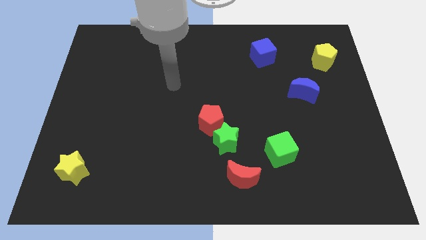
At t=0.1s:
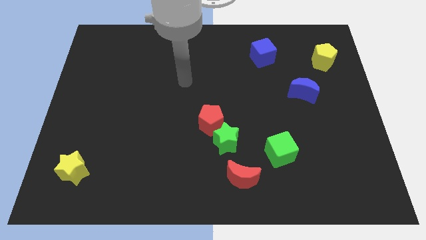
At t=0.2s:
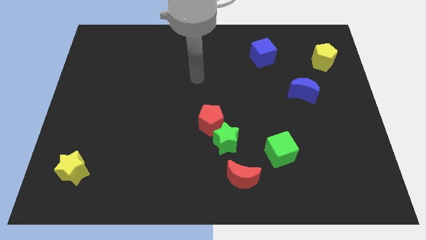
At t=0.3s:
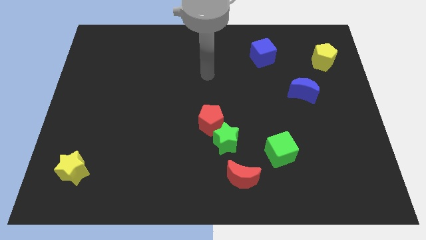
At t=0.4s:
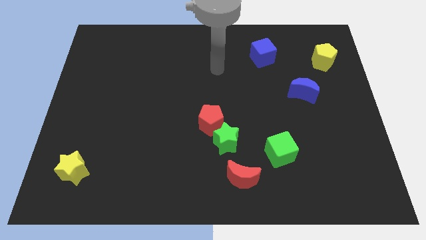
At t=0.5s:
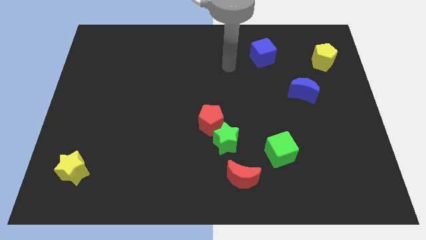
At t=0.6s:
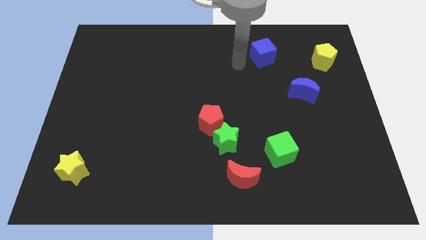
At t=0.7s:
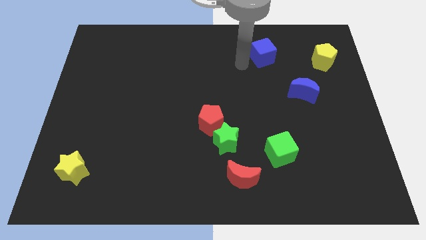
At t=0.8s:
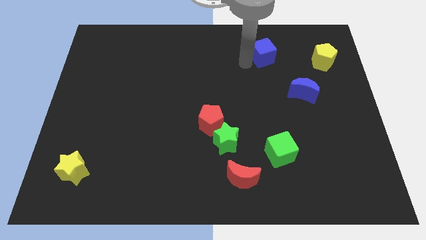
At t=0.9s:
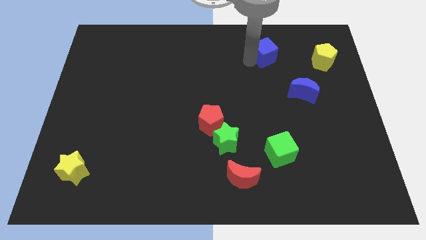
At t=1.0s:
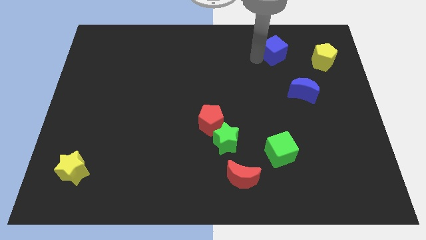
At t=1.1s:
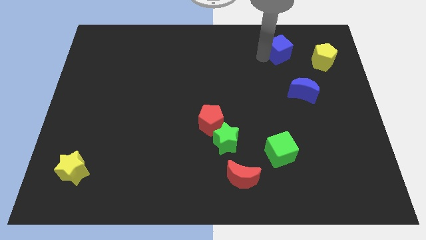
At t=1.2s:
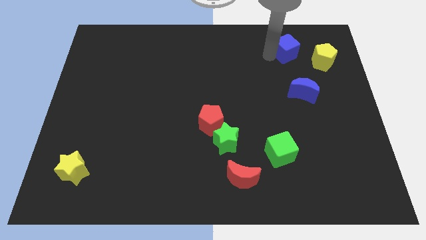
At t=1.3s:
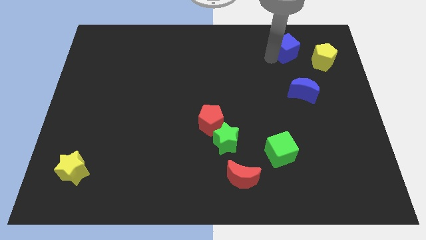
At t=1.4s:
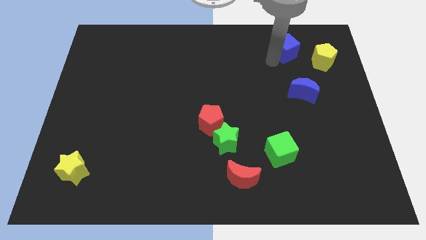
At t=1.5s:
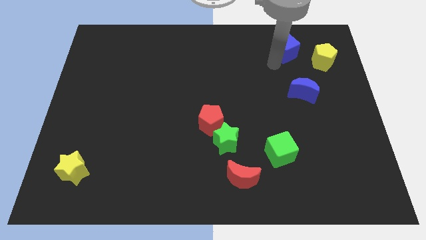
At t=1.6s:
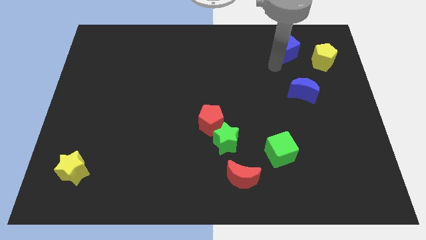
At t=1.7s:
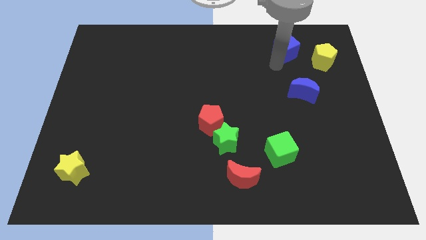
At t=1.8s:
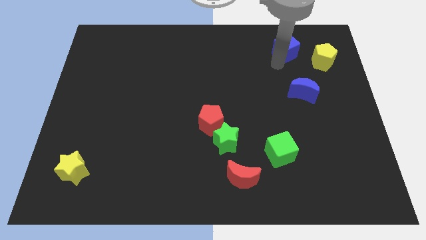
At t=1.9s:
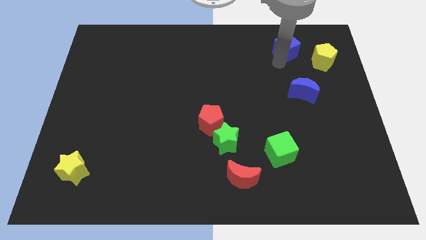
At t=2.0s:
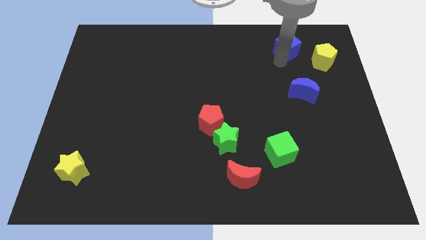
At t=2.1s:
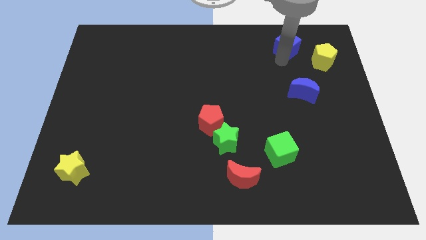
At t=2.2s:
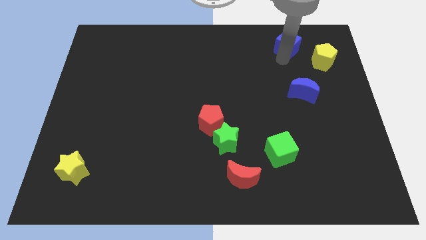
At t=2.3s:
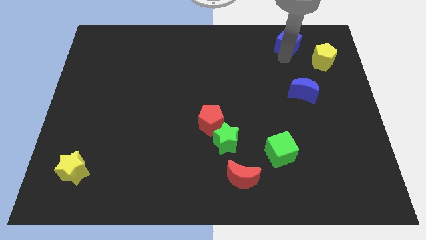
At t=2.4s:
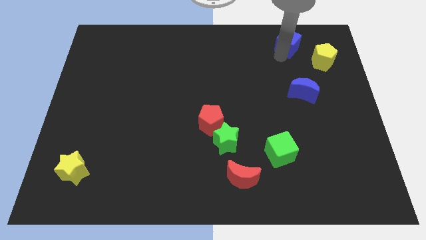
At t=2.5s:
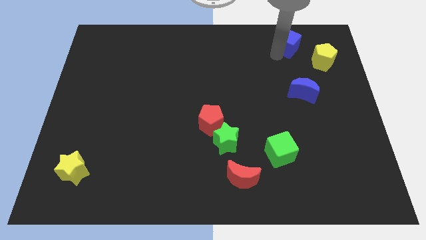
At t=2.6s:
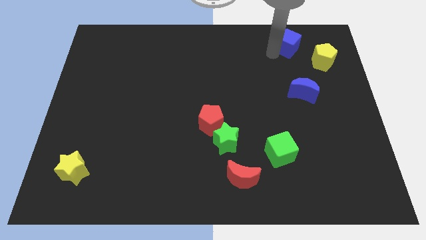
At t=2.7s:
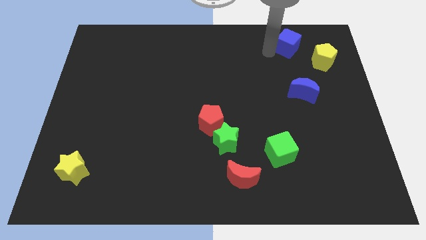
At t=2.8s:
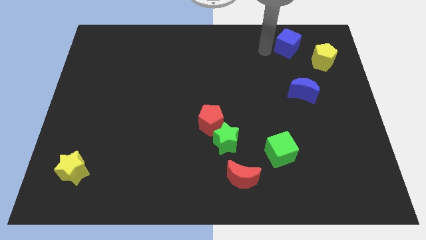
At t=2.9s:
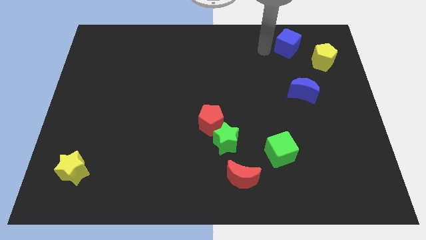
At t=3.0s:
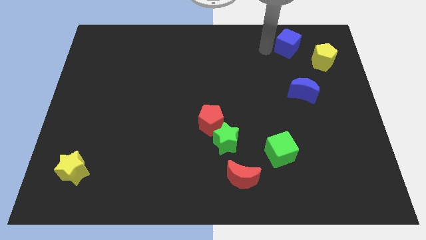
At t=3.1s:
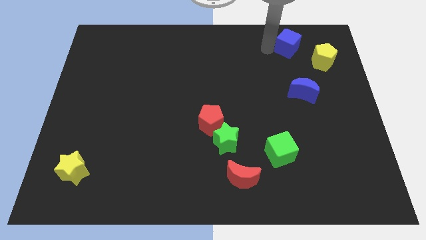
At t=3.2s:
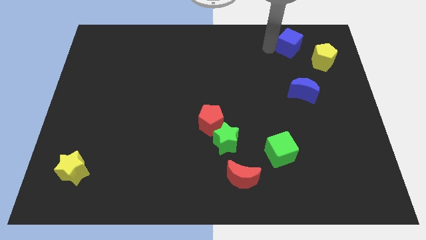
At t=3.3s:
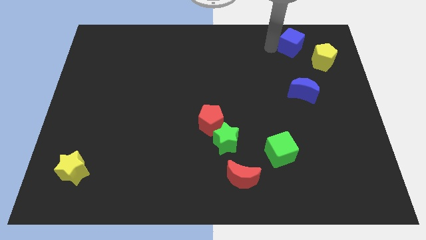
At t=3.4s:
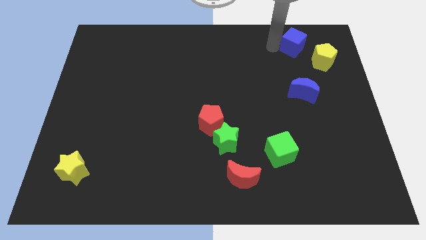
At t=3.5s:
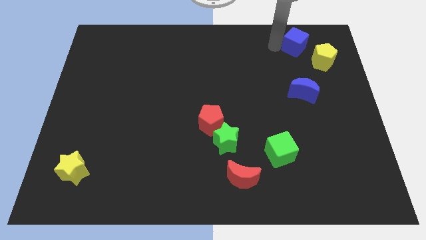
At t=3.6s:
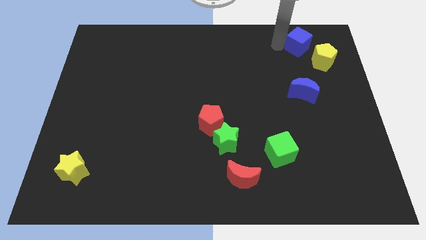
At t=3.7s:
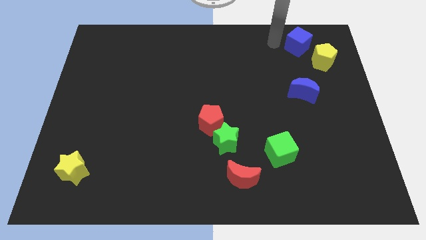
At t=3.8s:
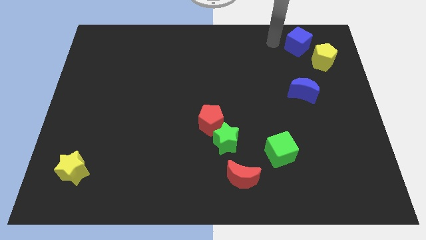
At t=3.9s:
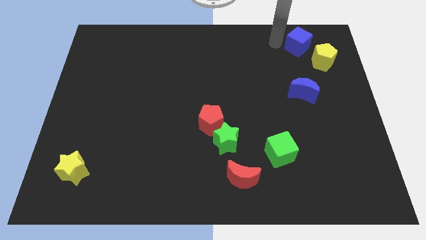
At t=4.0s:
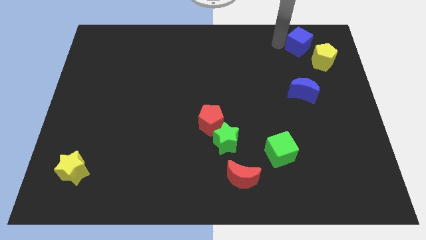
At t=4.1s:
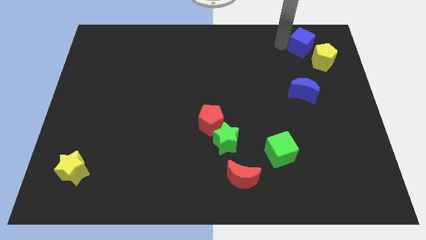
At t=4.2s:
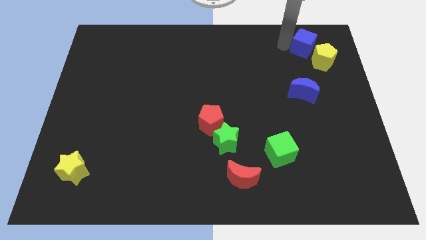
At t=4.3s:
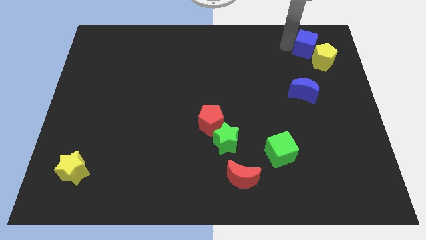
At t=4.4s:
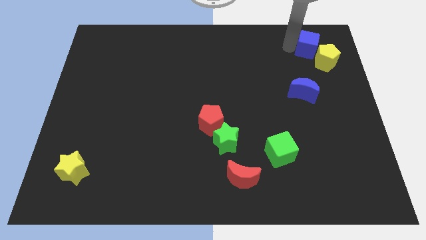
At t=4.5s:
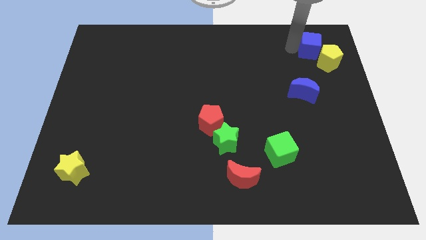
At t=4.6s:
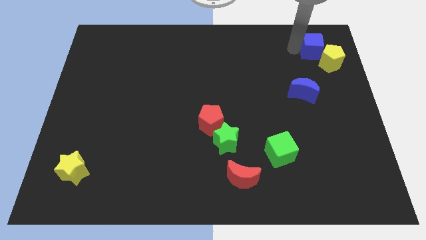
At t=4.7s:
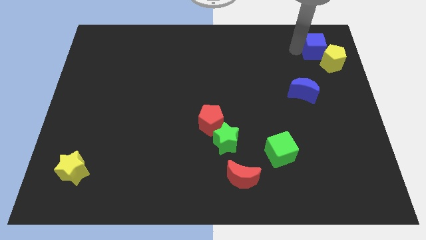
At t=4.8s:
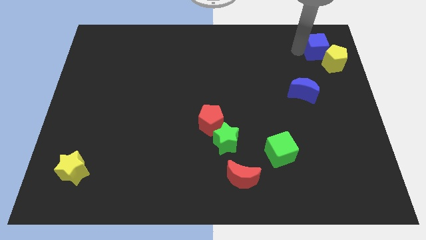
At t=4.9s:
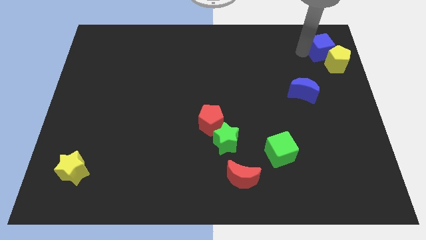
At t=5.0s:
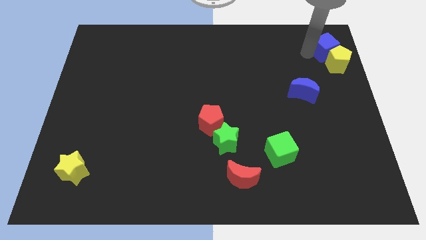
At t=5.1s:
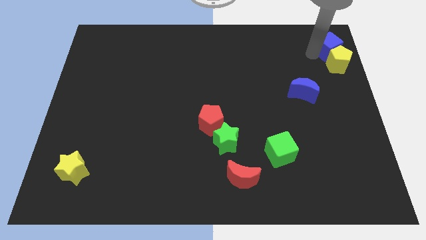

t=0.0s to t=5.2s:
move the blue cube to the top right corner

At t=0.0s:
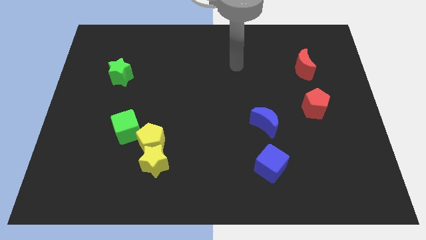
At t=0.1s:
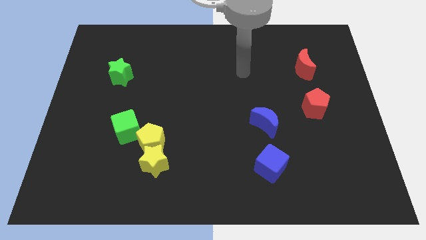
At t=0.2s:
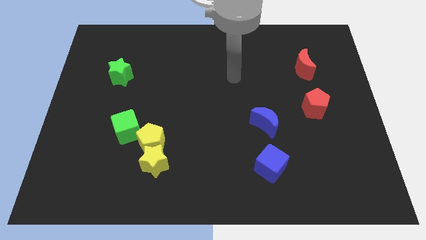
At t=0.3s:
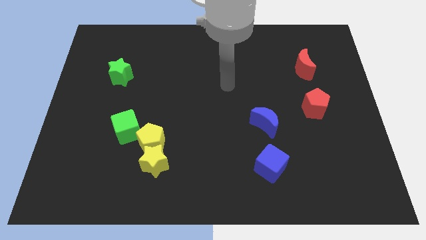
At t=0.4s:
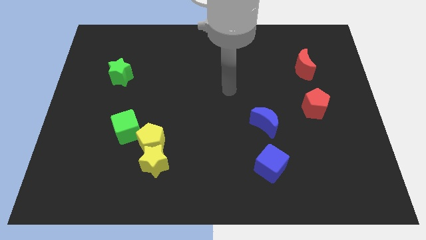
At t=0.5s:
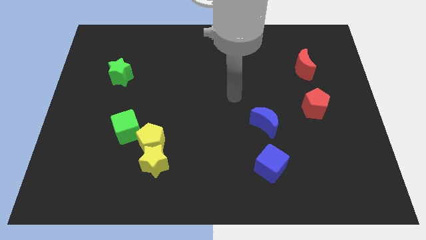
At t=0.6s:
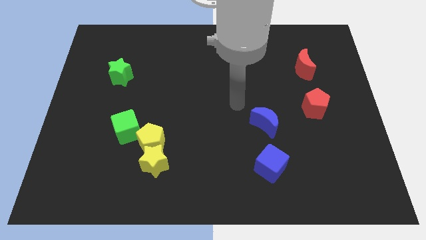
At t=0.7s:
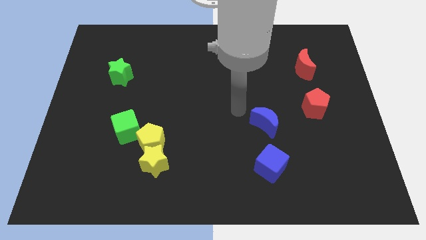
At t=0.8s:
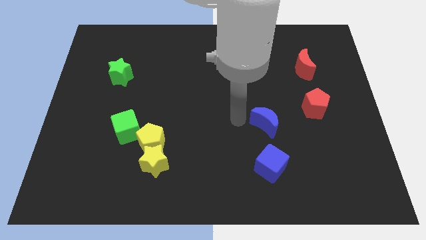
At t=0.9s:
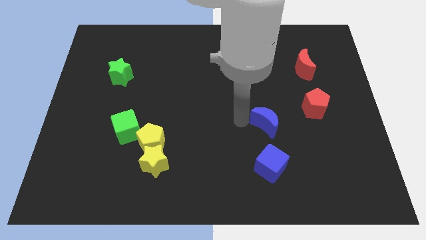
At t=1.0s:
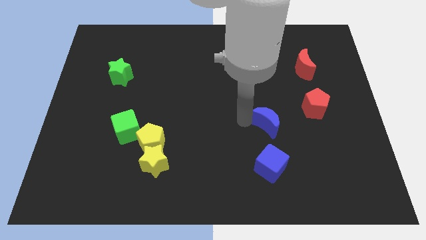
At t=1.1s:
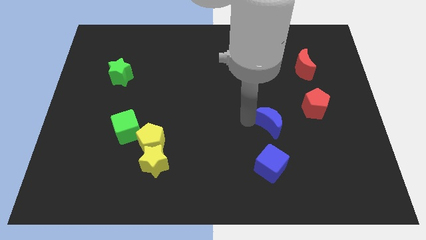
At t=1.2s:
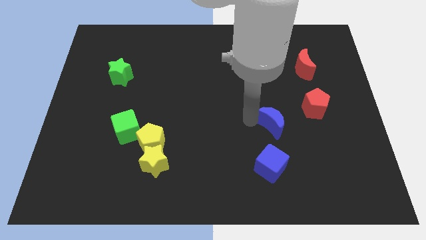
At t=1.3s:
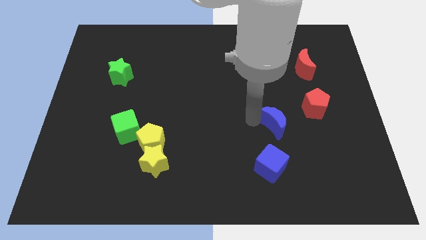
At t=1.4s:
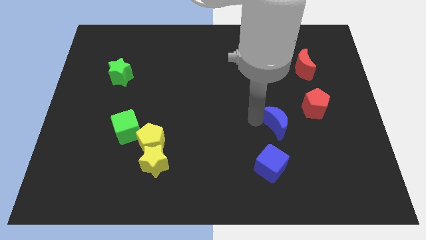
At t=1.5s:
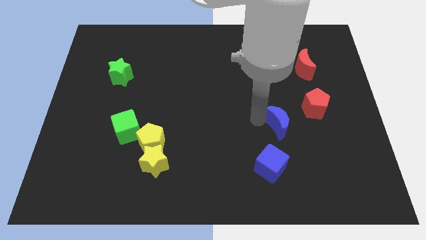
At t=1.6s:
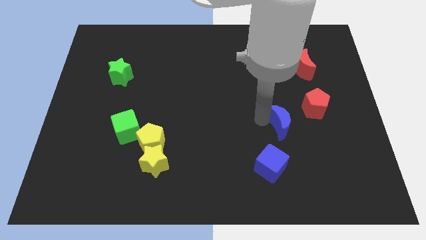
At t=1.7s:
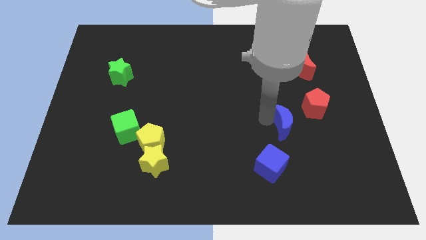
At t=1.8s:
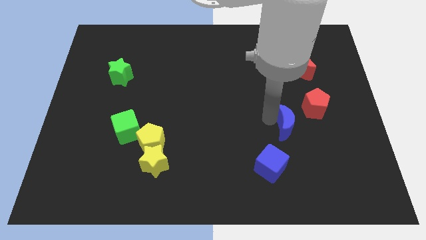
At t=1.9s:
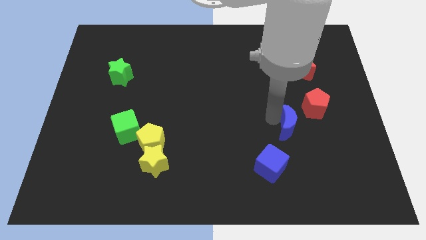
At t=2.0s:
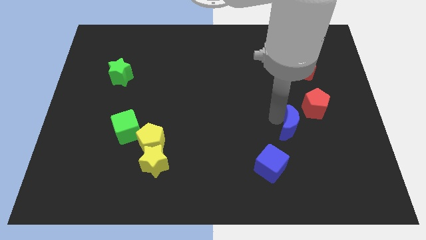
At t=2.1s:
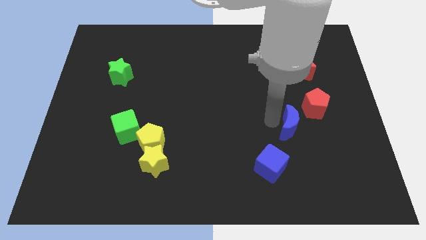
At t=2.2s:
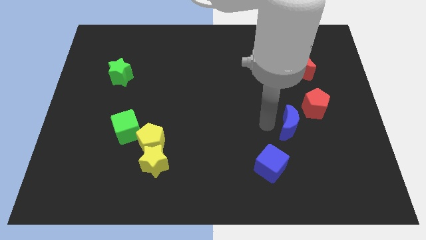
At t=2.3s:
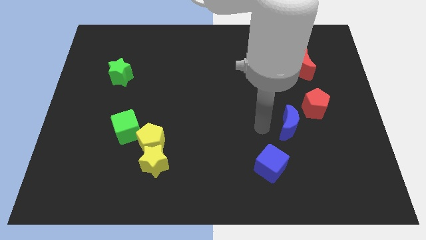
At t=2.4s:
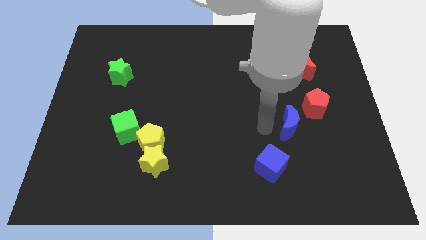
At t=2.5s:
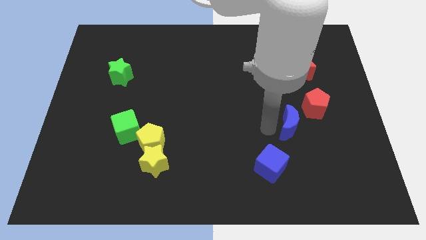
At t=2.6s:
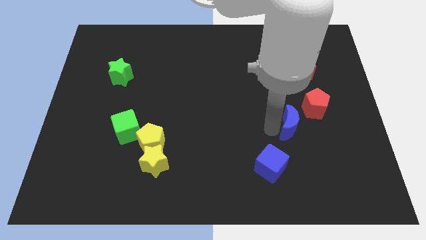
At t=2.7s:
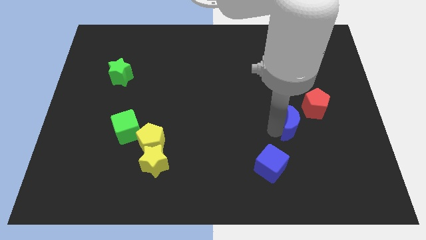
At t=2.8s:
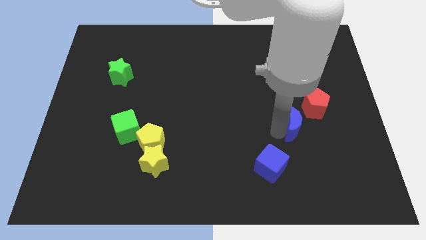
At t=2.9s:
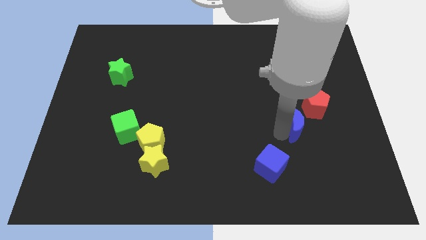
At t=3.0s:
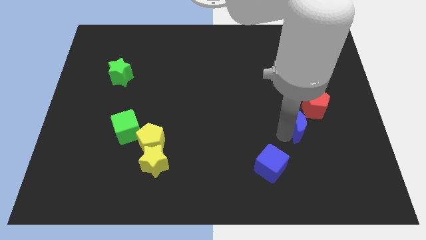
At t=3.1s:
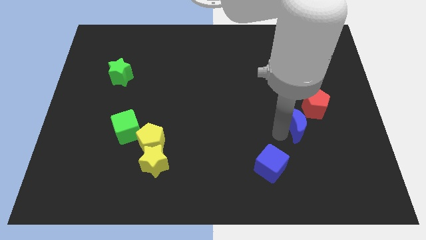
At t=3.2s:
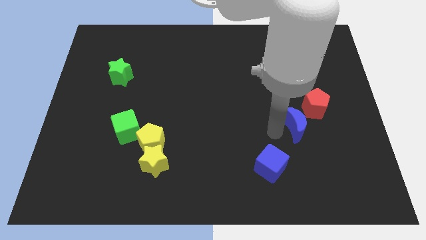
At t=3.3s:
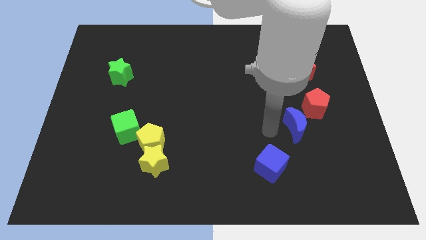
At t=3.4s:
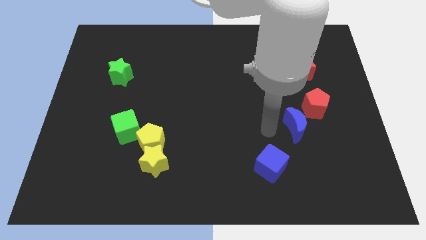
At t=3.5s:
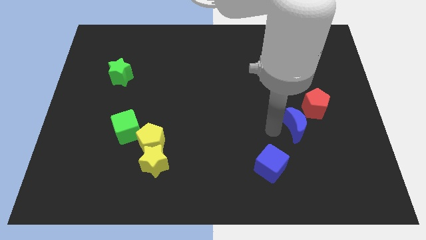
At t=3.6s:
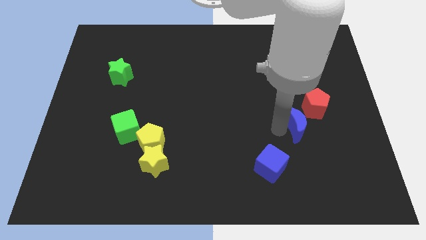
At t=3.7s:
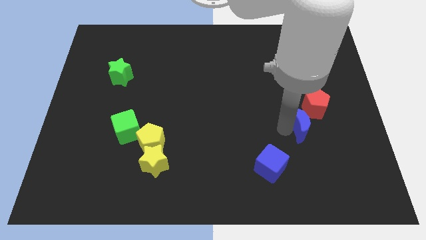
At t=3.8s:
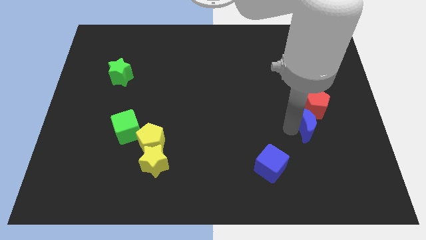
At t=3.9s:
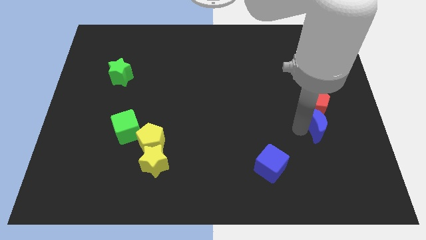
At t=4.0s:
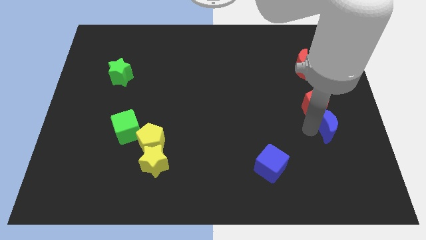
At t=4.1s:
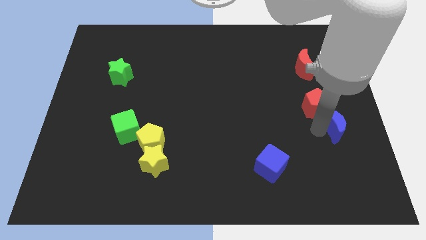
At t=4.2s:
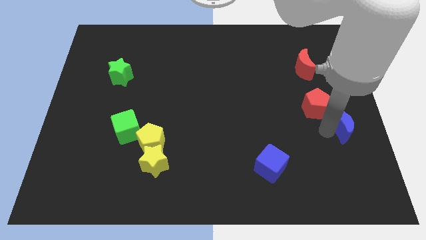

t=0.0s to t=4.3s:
push the blue moon to the right side
